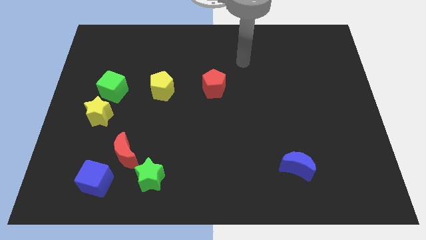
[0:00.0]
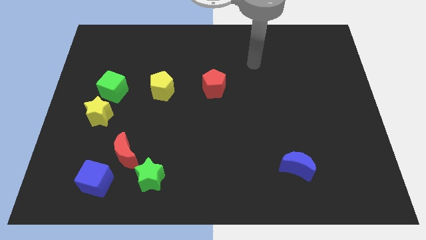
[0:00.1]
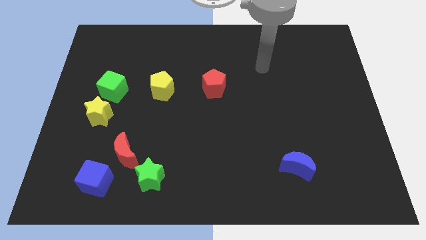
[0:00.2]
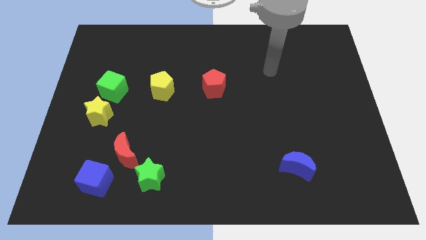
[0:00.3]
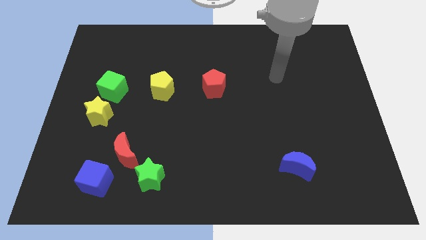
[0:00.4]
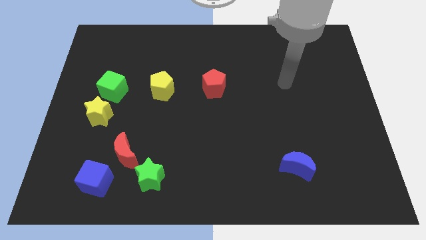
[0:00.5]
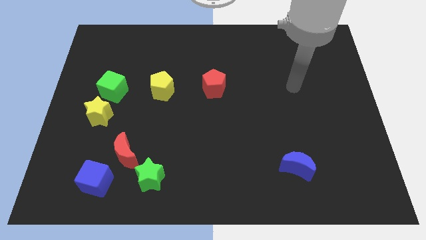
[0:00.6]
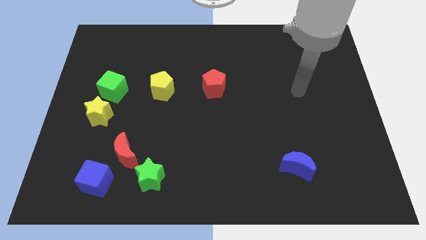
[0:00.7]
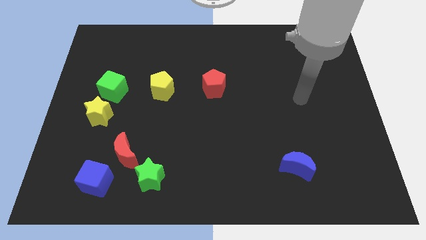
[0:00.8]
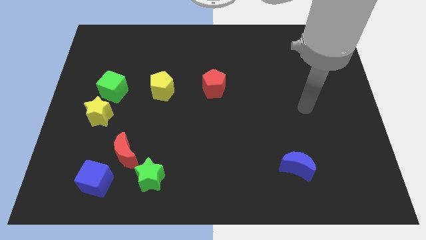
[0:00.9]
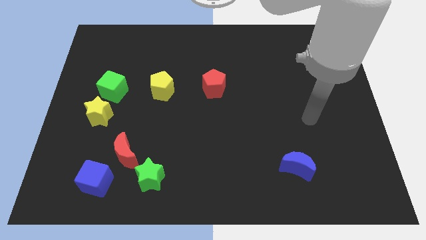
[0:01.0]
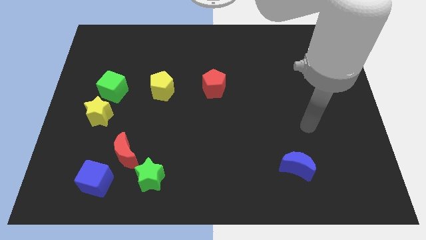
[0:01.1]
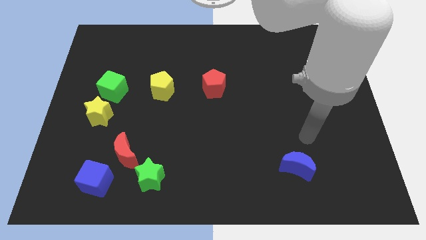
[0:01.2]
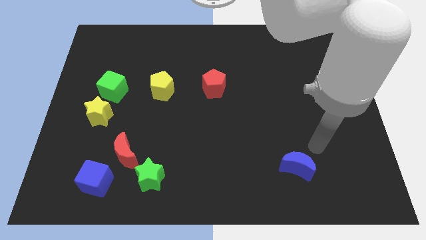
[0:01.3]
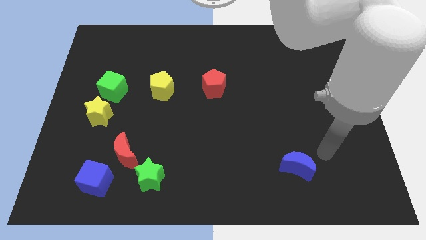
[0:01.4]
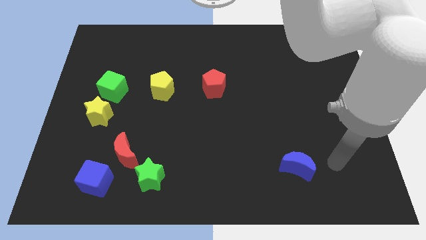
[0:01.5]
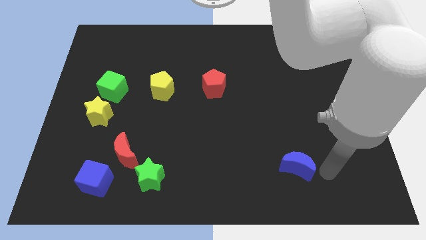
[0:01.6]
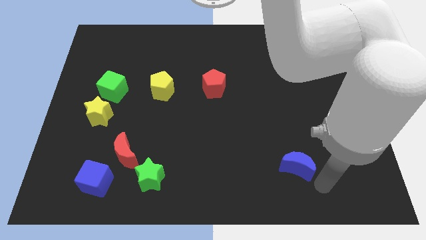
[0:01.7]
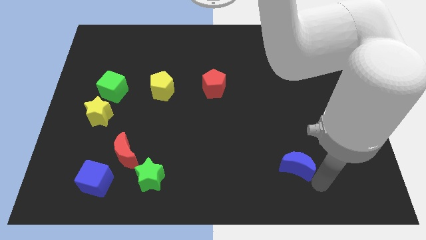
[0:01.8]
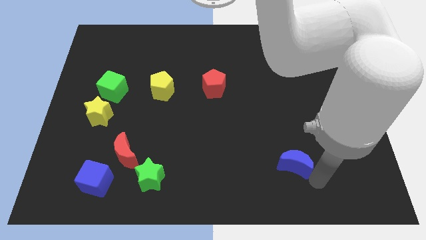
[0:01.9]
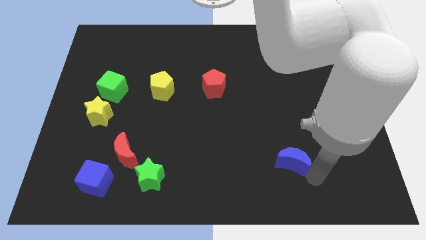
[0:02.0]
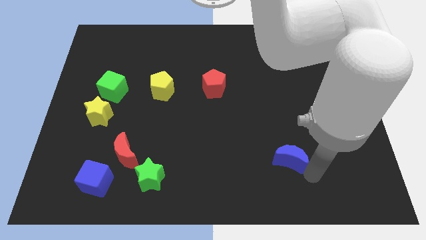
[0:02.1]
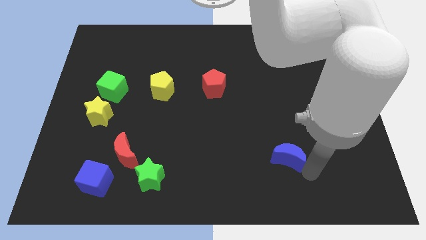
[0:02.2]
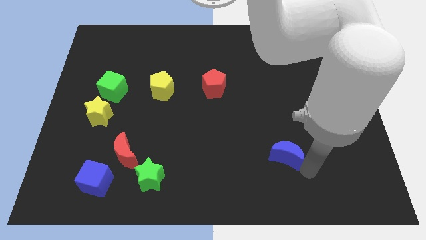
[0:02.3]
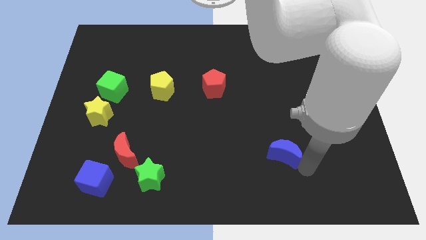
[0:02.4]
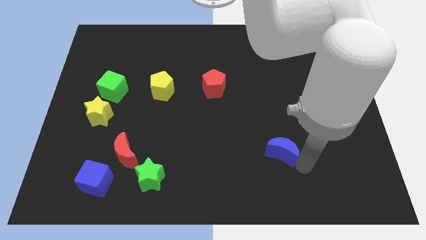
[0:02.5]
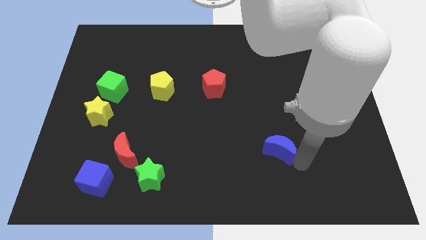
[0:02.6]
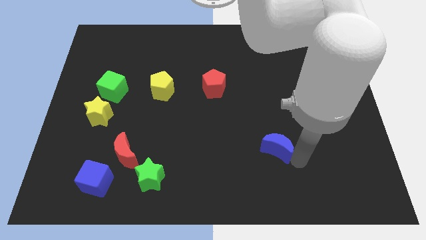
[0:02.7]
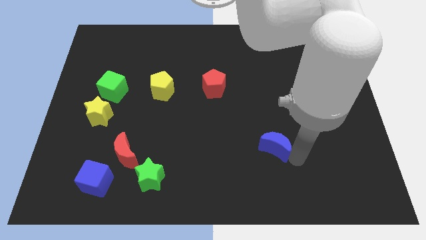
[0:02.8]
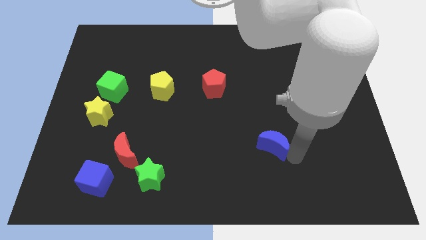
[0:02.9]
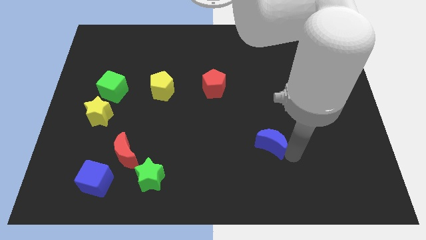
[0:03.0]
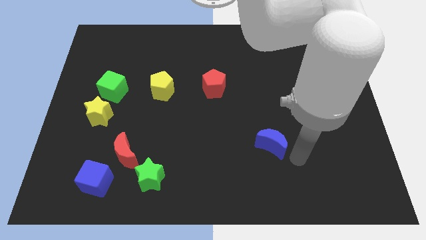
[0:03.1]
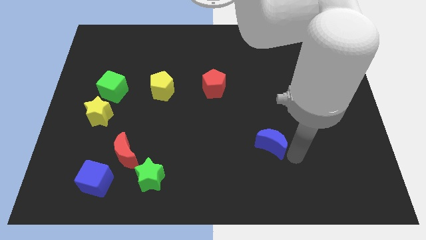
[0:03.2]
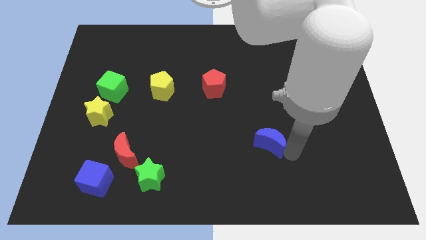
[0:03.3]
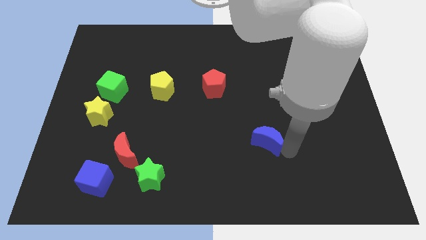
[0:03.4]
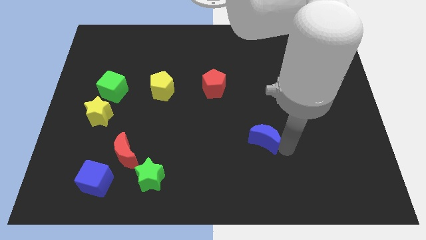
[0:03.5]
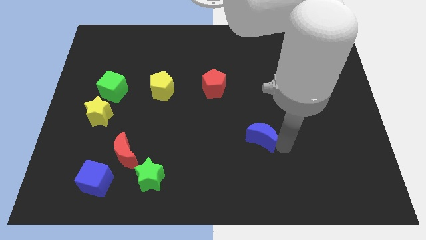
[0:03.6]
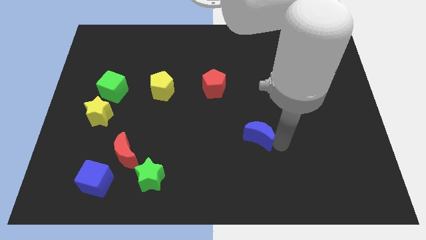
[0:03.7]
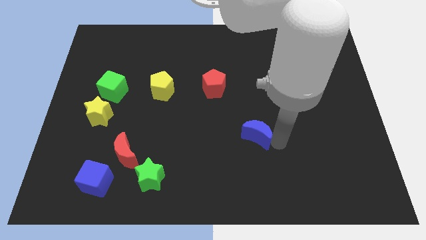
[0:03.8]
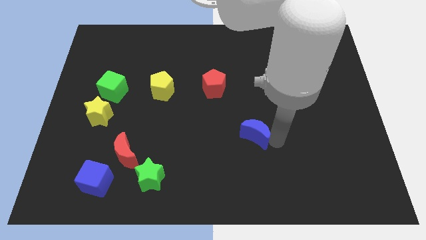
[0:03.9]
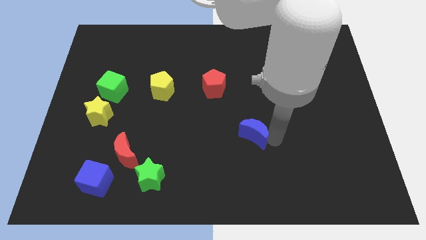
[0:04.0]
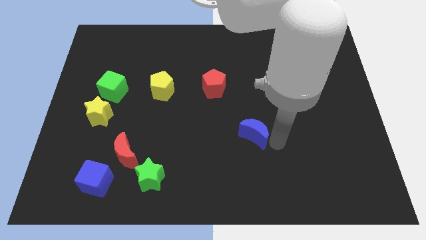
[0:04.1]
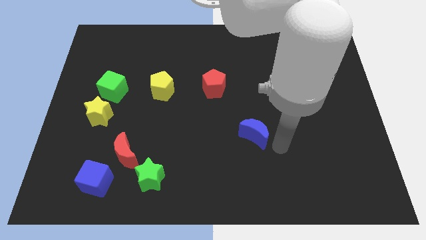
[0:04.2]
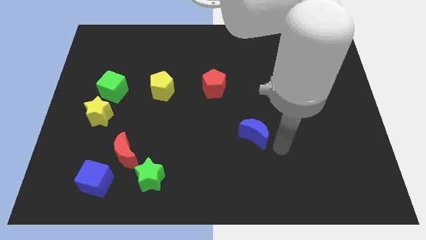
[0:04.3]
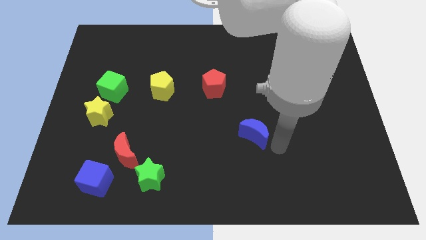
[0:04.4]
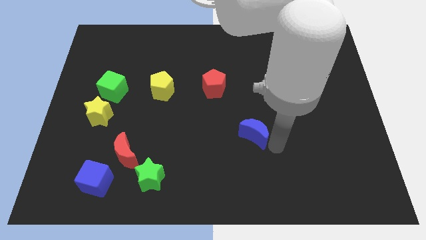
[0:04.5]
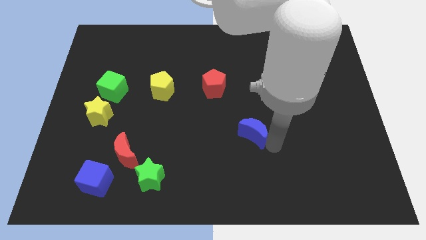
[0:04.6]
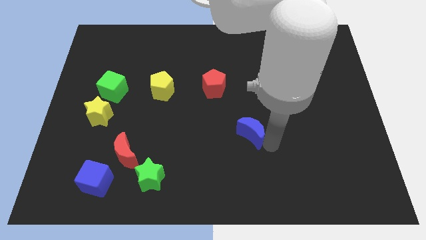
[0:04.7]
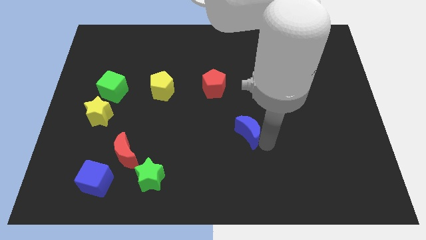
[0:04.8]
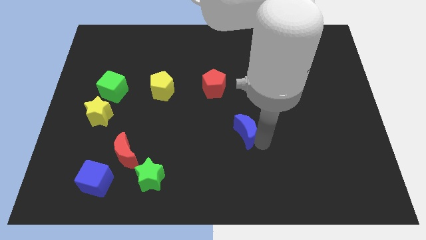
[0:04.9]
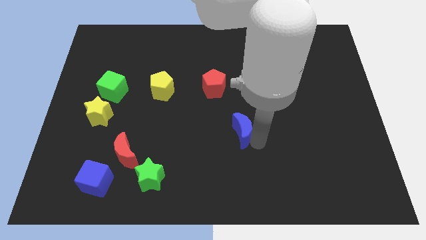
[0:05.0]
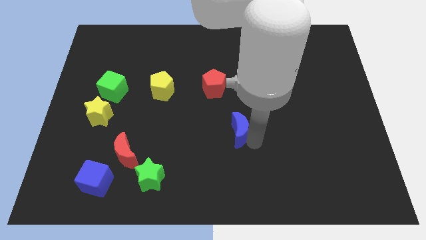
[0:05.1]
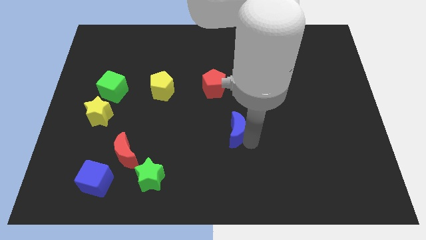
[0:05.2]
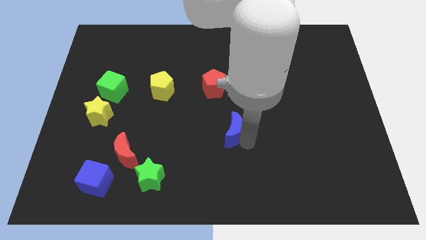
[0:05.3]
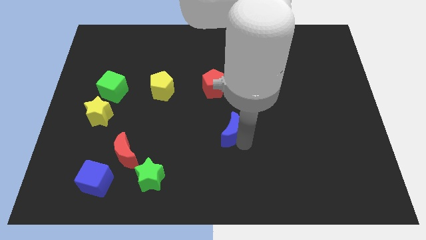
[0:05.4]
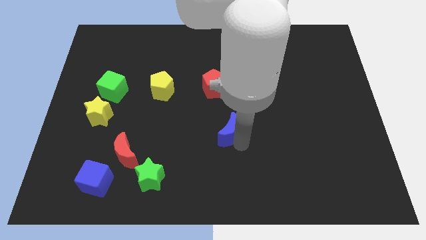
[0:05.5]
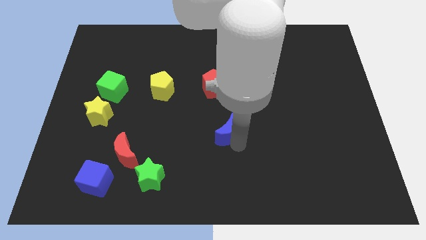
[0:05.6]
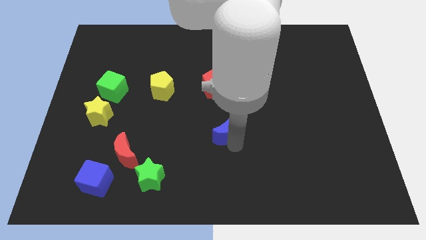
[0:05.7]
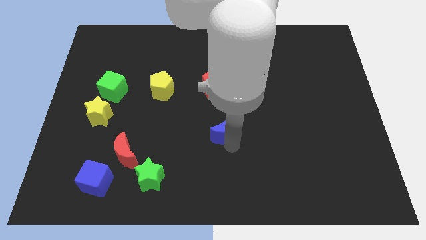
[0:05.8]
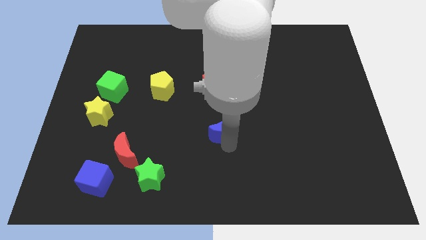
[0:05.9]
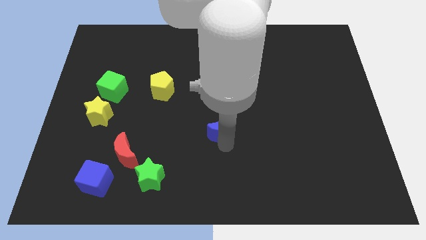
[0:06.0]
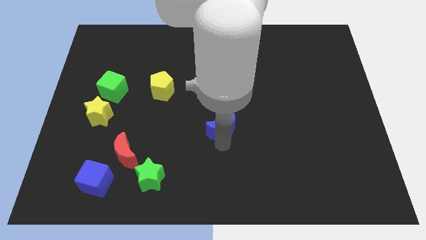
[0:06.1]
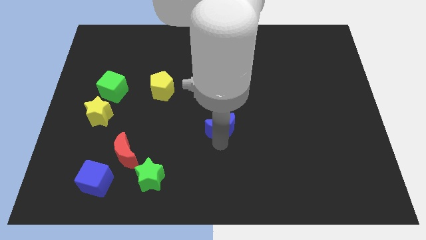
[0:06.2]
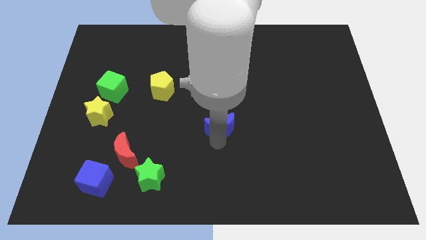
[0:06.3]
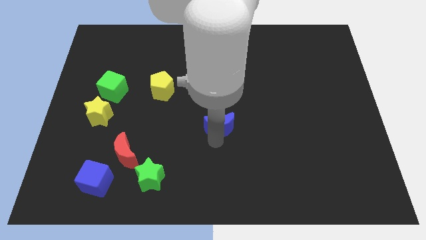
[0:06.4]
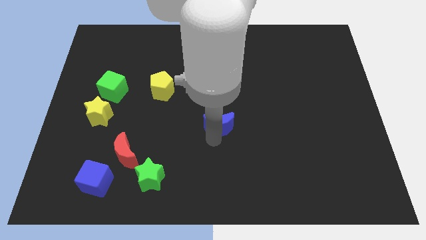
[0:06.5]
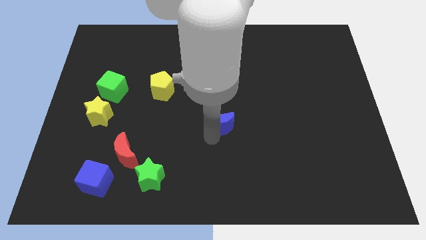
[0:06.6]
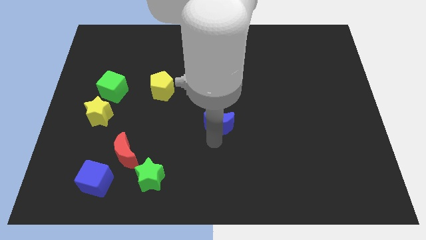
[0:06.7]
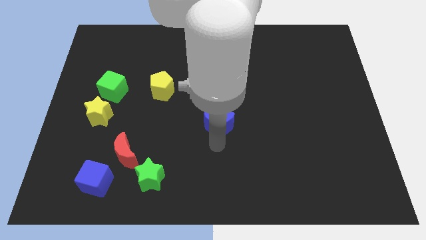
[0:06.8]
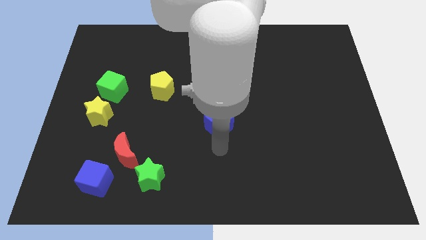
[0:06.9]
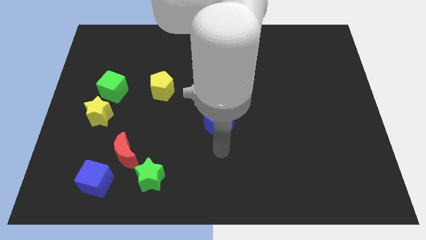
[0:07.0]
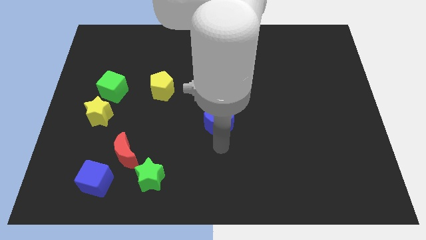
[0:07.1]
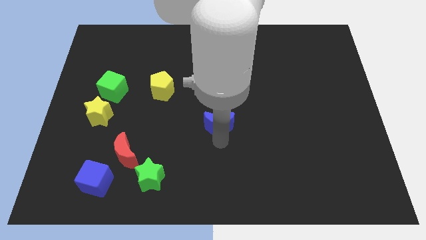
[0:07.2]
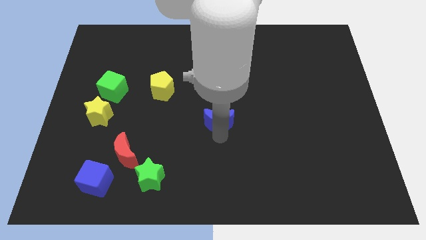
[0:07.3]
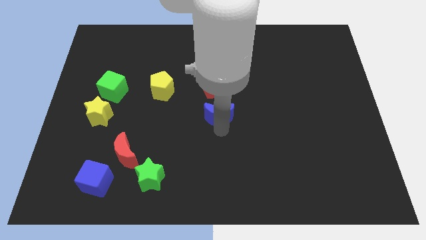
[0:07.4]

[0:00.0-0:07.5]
slide the blue moon upwards and to the left

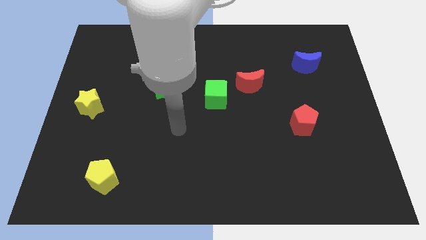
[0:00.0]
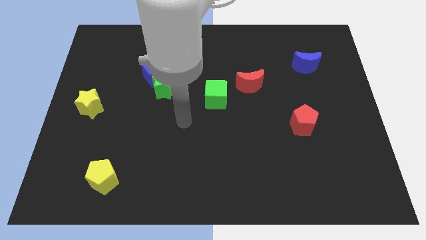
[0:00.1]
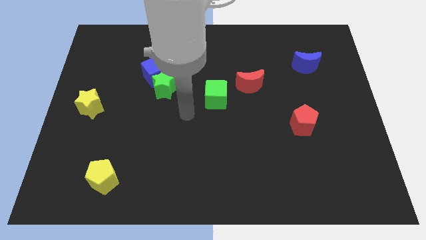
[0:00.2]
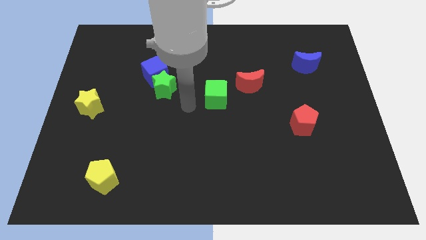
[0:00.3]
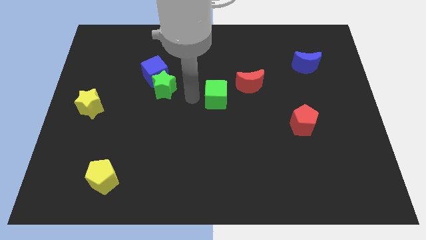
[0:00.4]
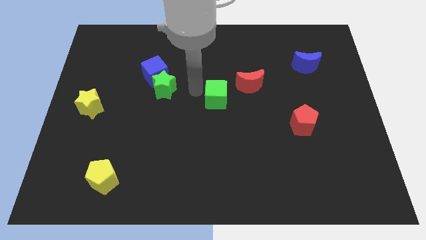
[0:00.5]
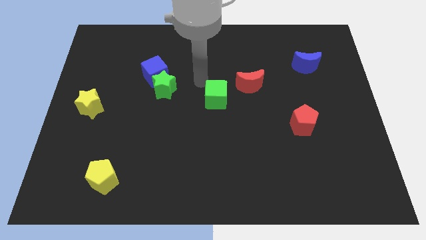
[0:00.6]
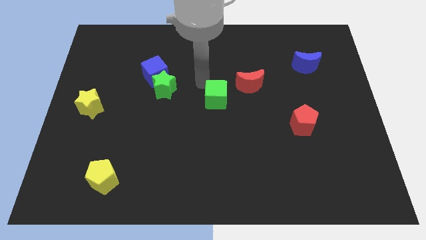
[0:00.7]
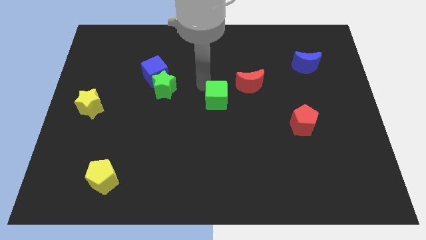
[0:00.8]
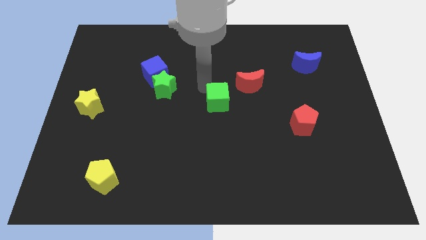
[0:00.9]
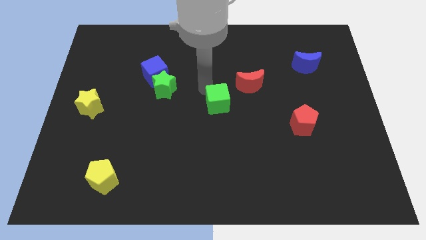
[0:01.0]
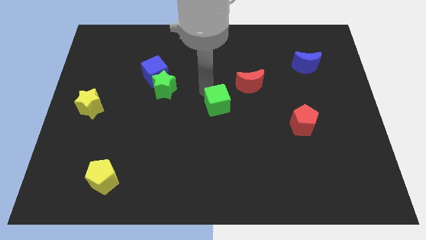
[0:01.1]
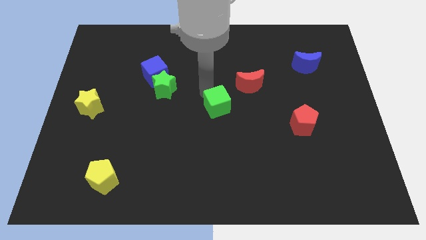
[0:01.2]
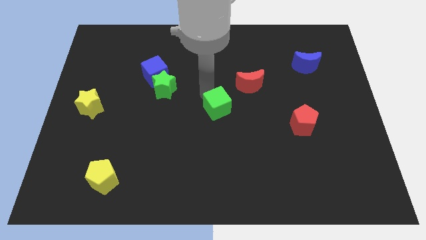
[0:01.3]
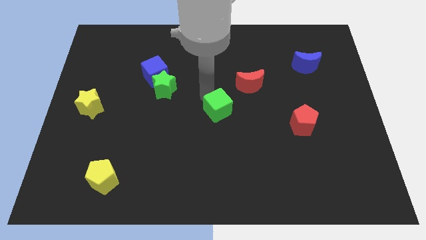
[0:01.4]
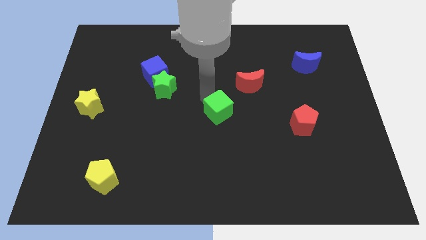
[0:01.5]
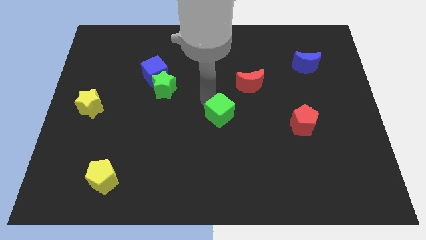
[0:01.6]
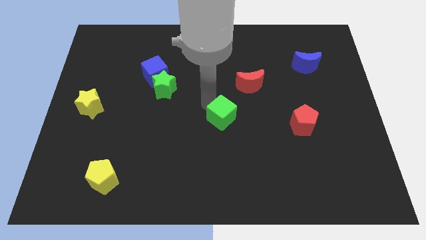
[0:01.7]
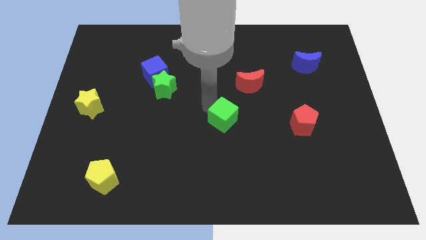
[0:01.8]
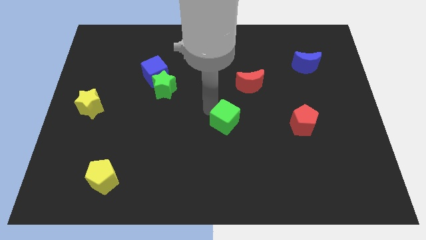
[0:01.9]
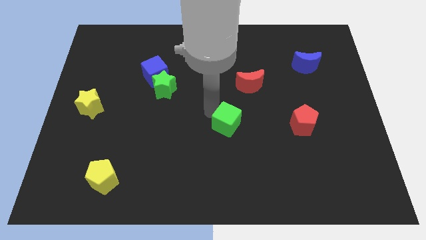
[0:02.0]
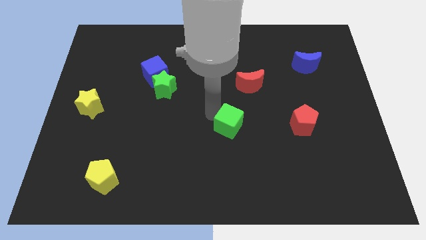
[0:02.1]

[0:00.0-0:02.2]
slightly slide the green cube diagonally downwards and to the right
